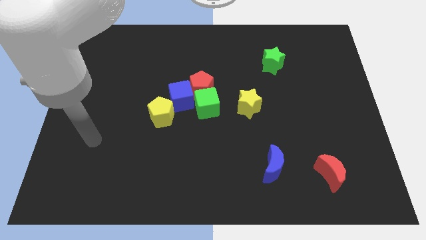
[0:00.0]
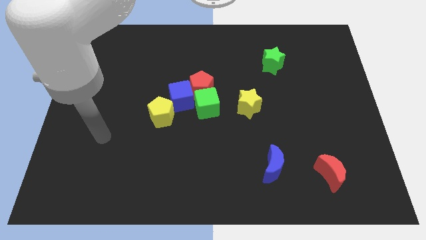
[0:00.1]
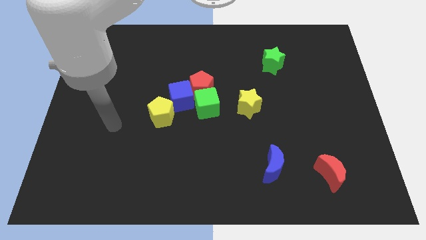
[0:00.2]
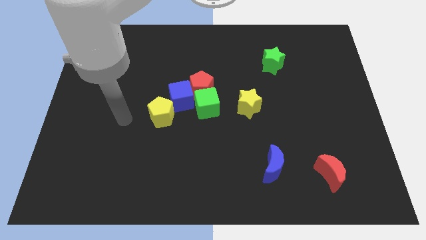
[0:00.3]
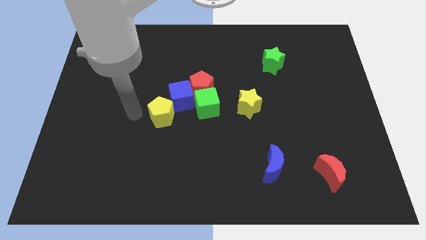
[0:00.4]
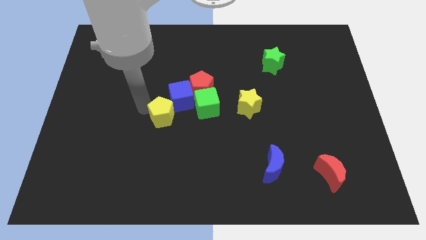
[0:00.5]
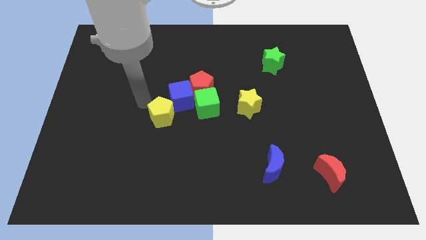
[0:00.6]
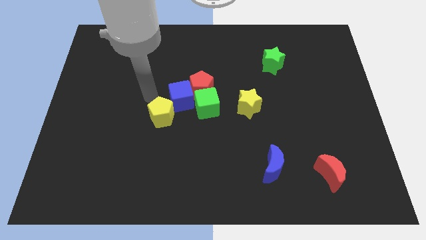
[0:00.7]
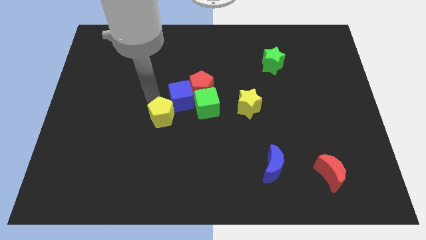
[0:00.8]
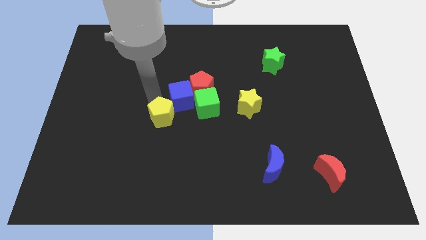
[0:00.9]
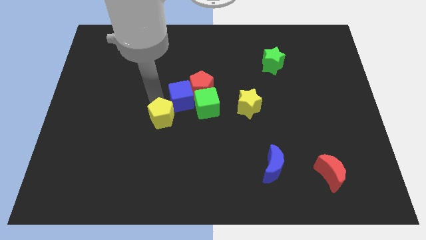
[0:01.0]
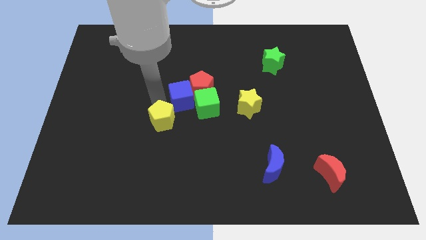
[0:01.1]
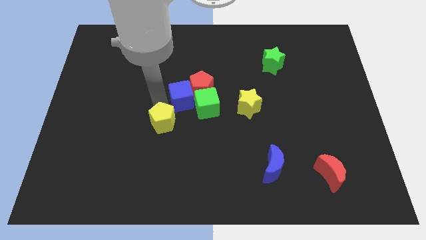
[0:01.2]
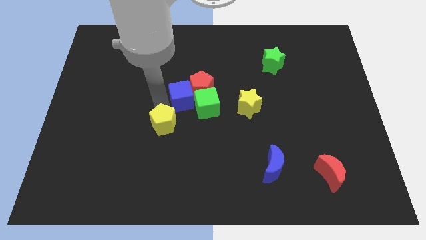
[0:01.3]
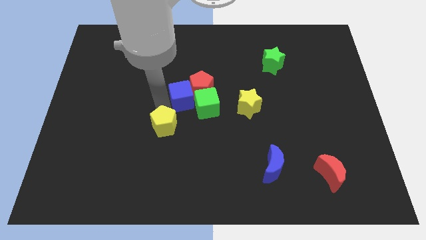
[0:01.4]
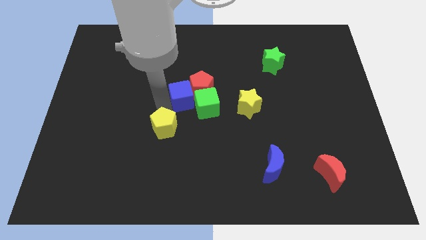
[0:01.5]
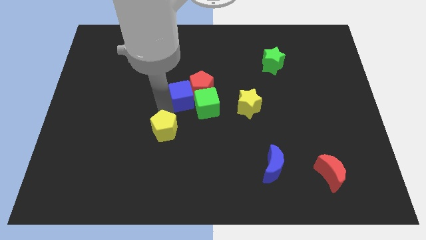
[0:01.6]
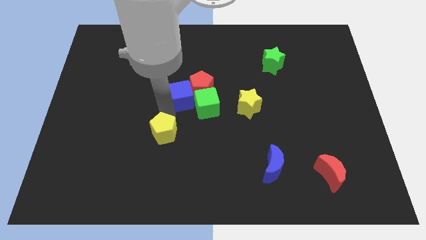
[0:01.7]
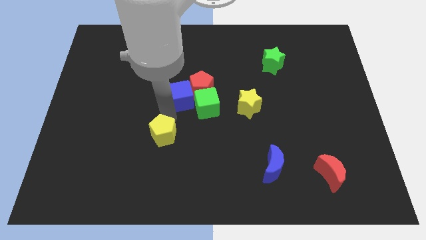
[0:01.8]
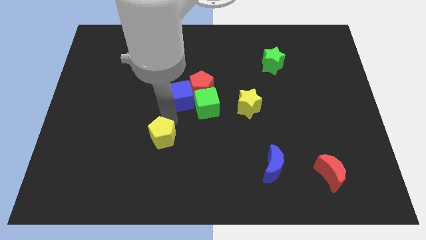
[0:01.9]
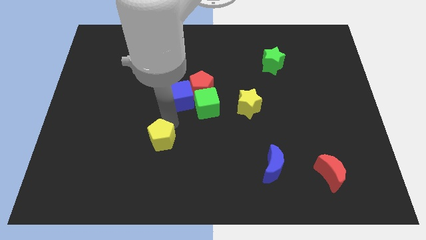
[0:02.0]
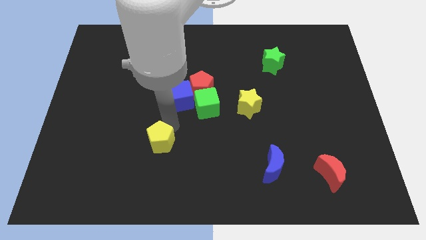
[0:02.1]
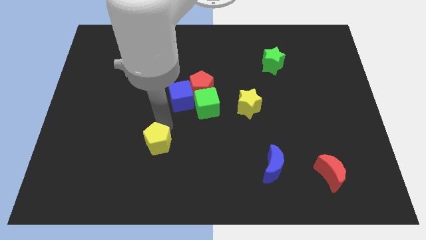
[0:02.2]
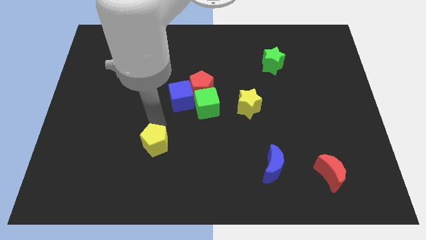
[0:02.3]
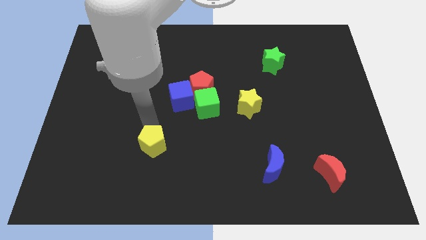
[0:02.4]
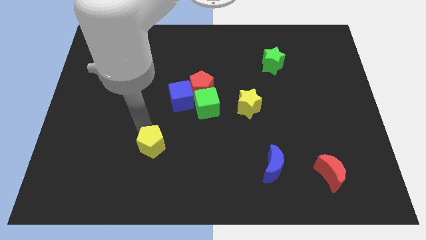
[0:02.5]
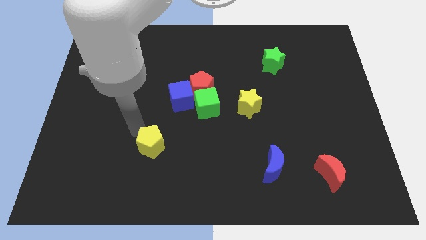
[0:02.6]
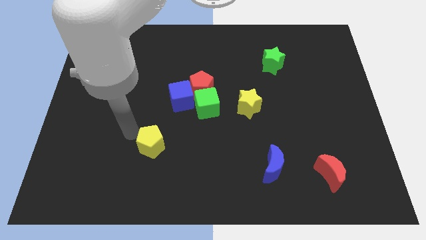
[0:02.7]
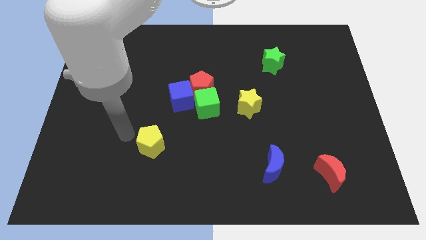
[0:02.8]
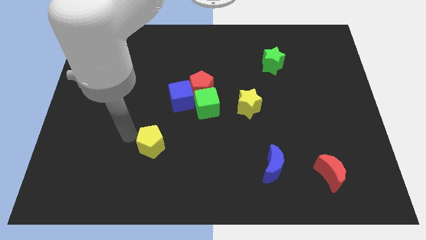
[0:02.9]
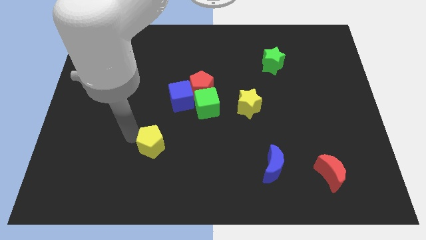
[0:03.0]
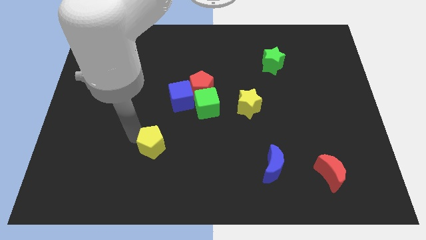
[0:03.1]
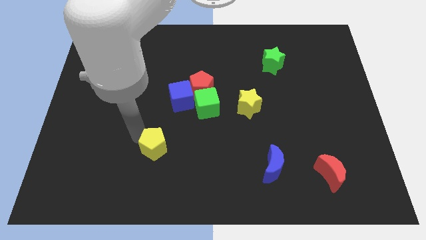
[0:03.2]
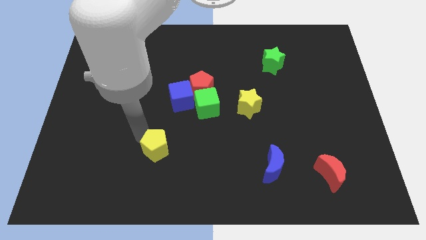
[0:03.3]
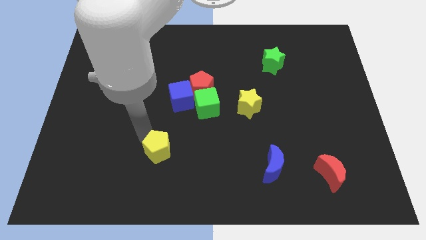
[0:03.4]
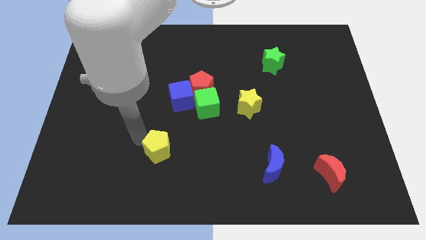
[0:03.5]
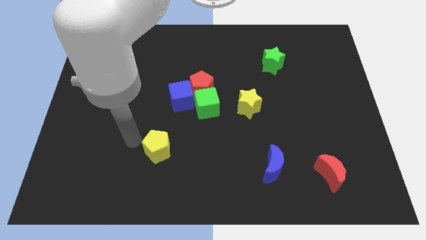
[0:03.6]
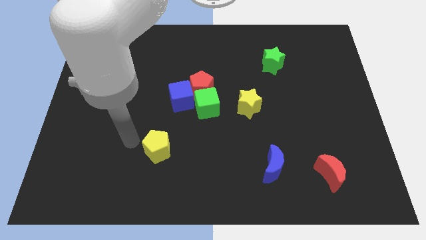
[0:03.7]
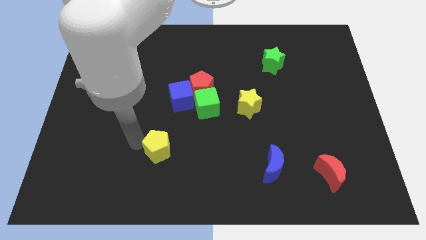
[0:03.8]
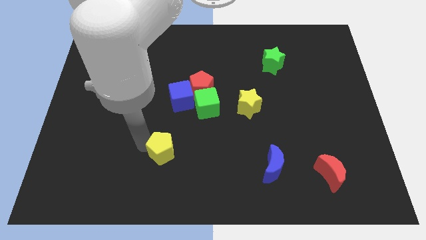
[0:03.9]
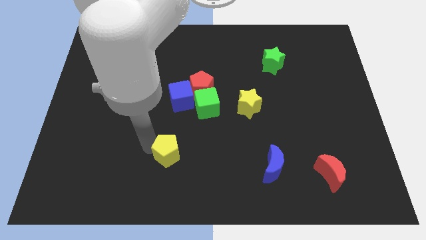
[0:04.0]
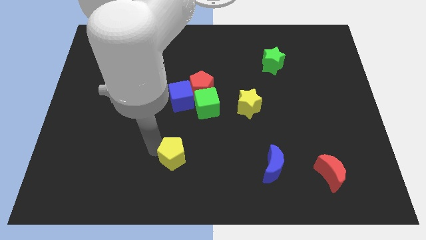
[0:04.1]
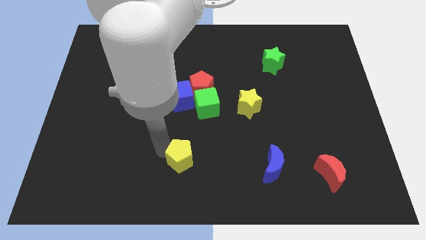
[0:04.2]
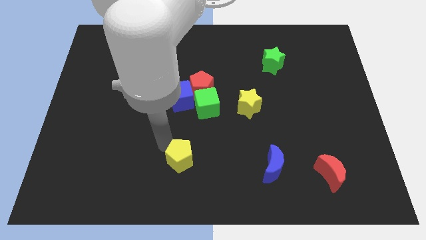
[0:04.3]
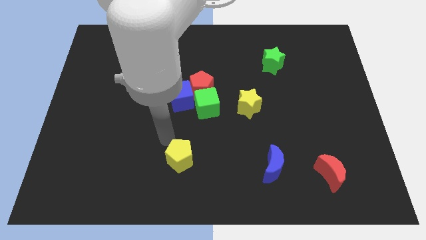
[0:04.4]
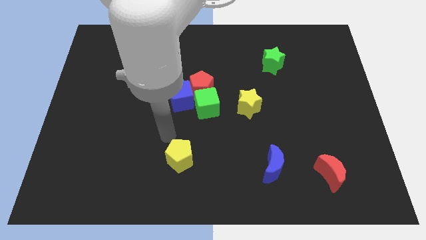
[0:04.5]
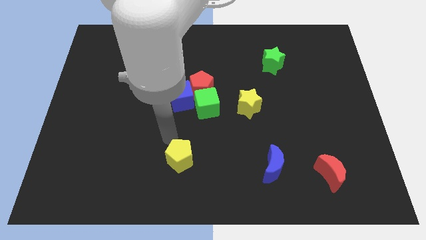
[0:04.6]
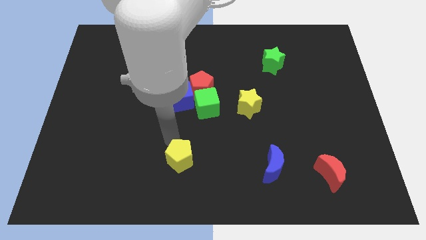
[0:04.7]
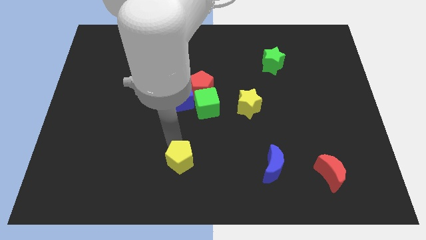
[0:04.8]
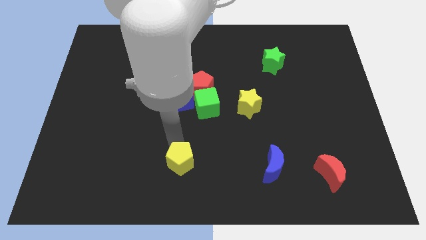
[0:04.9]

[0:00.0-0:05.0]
put the yellow pentagon to the bottom side

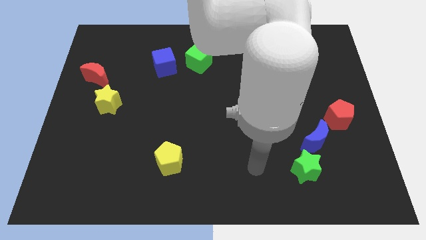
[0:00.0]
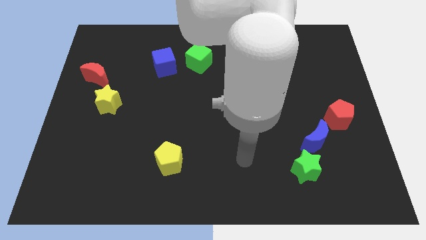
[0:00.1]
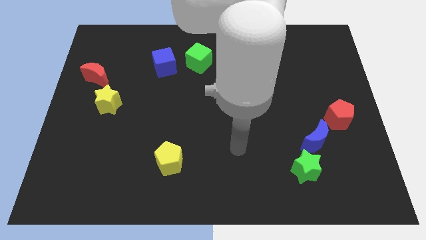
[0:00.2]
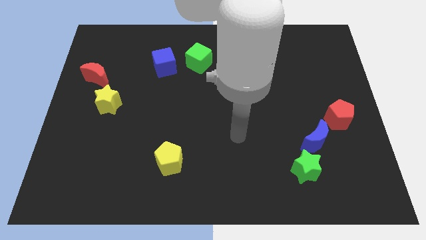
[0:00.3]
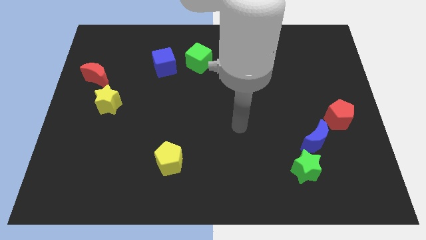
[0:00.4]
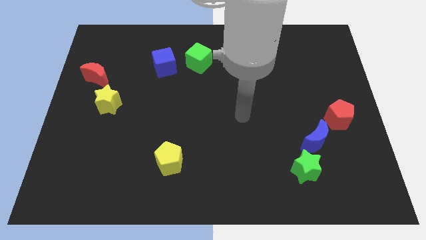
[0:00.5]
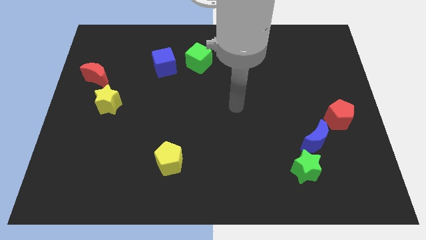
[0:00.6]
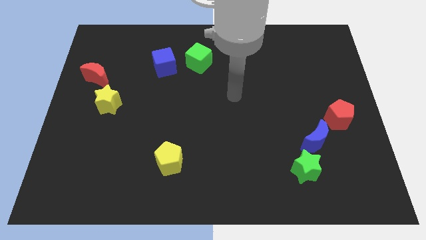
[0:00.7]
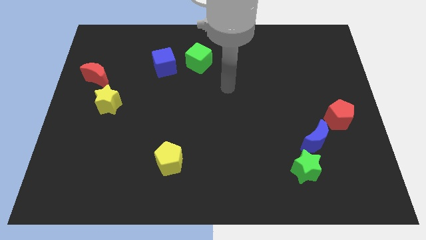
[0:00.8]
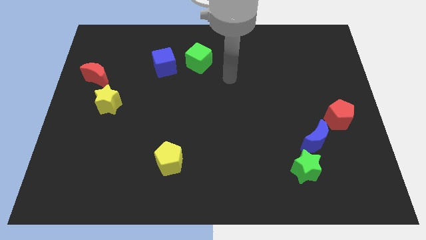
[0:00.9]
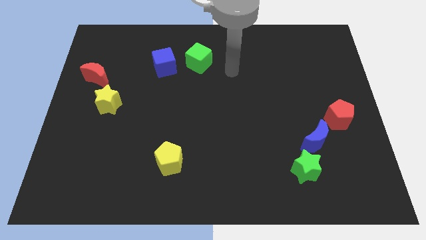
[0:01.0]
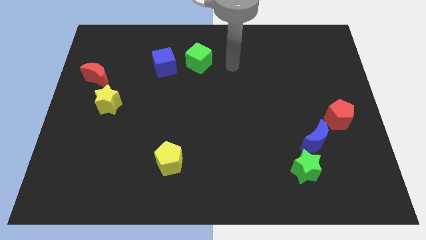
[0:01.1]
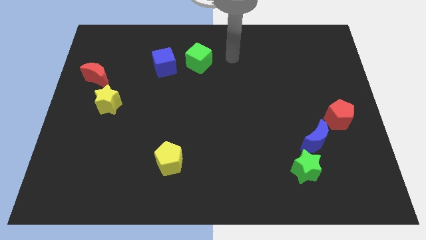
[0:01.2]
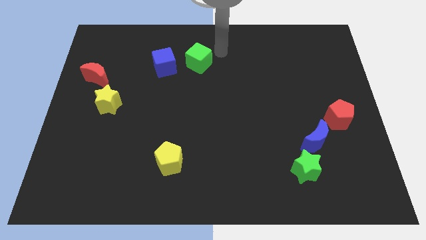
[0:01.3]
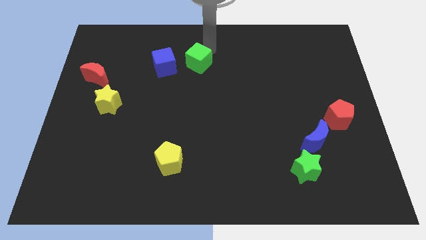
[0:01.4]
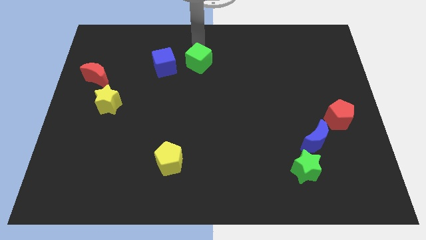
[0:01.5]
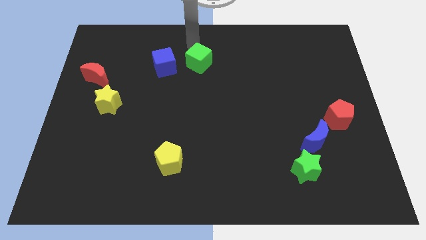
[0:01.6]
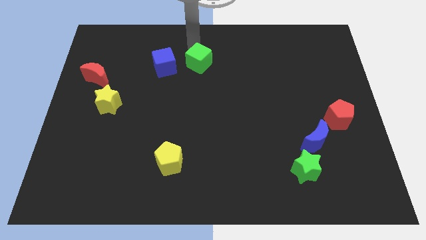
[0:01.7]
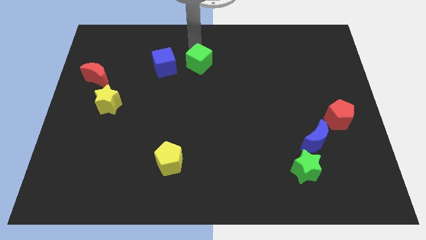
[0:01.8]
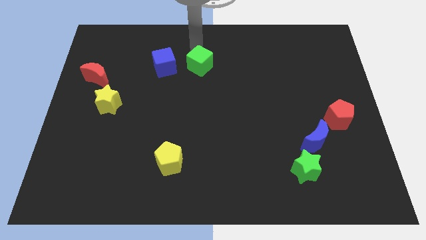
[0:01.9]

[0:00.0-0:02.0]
push the green cube to the center

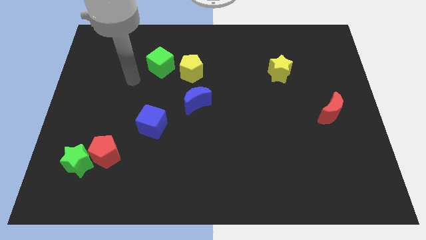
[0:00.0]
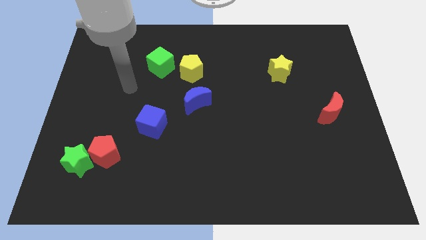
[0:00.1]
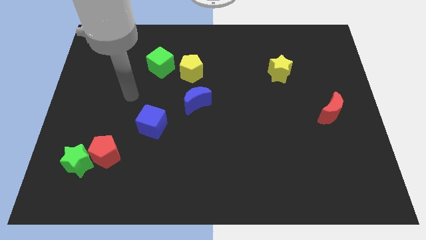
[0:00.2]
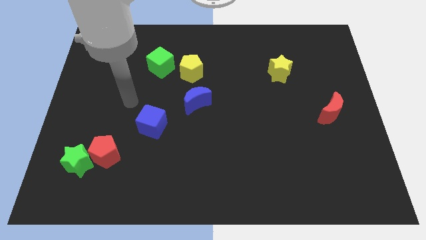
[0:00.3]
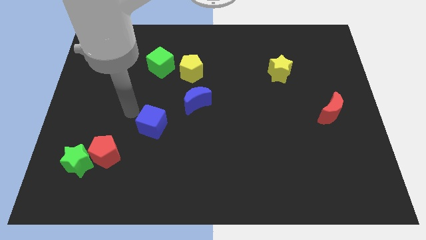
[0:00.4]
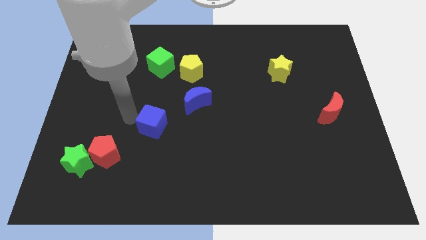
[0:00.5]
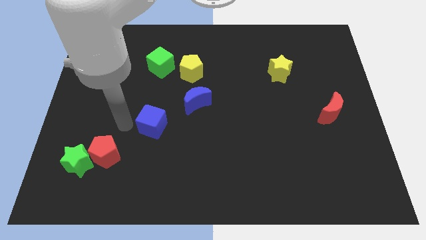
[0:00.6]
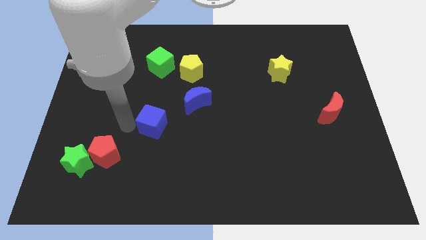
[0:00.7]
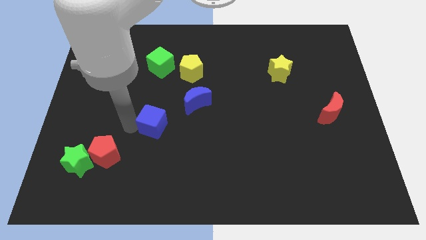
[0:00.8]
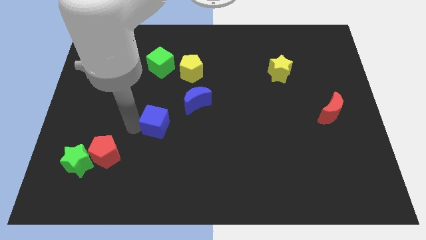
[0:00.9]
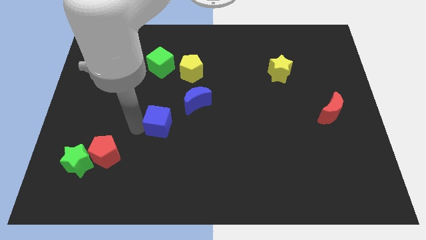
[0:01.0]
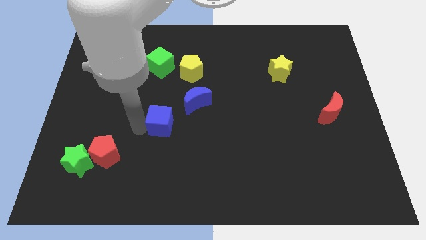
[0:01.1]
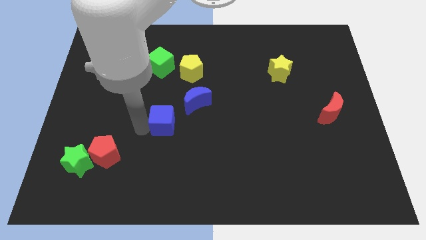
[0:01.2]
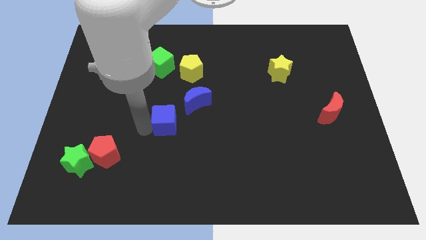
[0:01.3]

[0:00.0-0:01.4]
slide the blue cube to the middle
